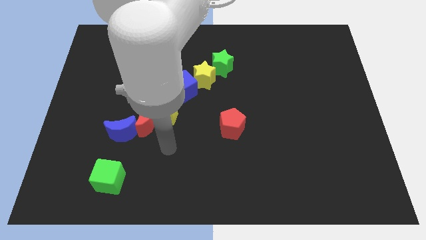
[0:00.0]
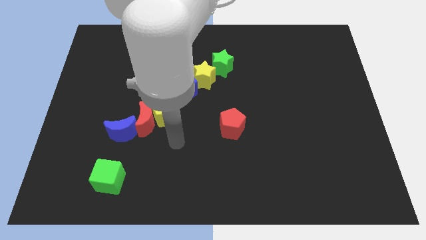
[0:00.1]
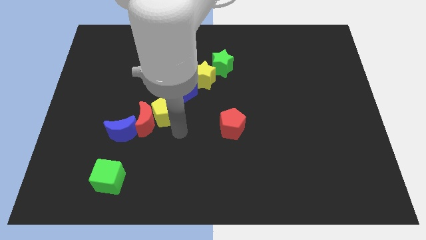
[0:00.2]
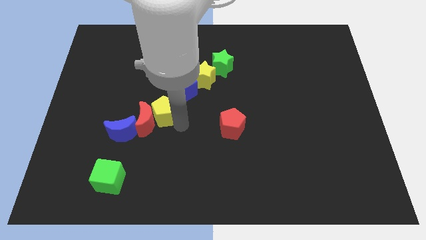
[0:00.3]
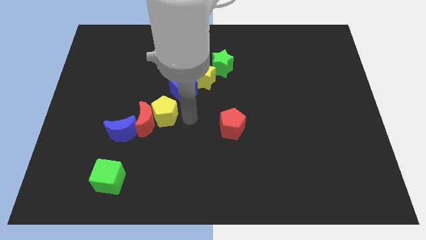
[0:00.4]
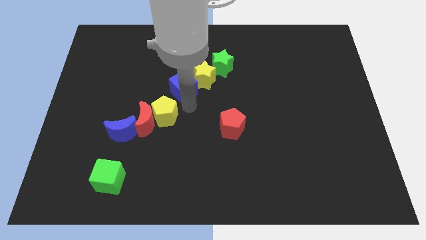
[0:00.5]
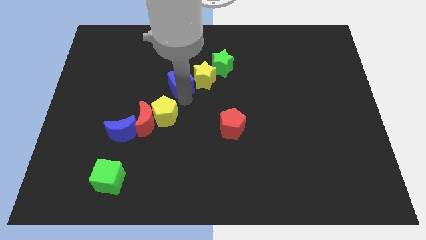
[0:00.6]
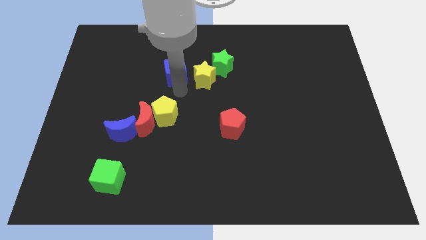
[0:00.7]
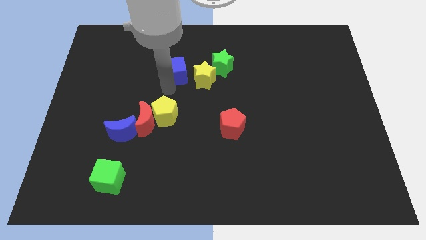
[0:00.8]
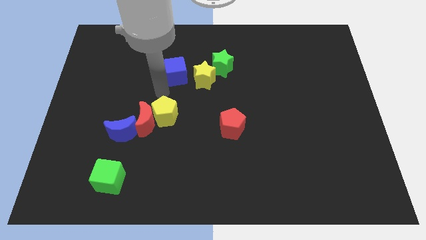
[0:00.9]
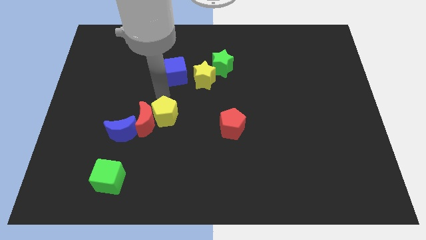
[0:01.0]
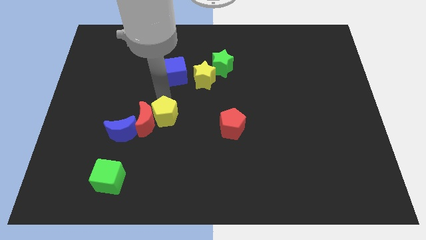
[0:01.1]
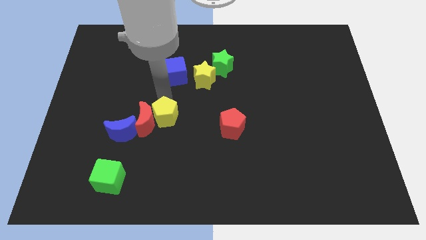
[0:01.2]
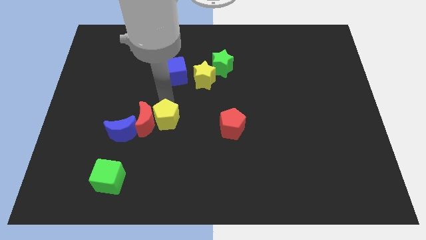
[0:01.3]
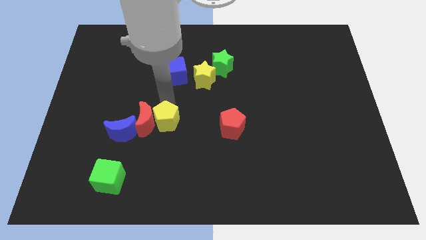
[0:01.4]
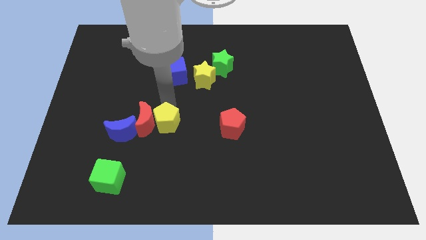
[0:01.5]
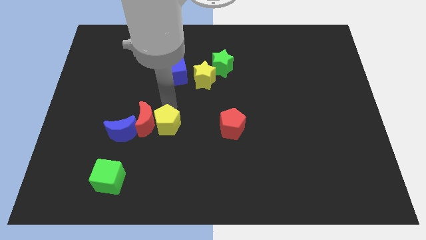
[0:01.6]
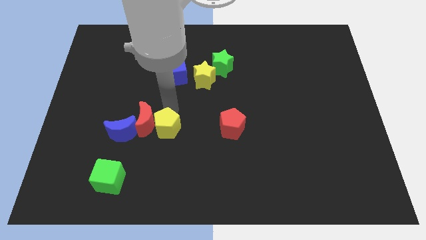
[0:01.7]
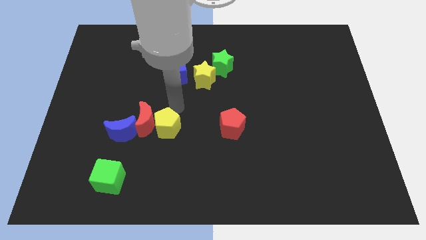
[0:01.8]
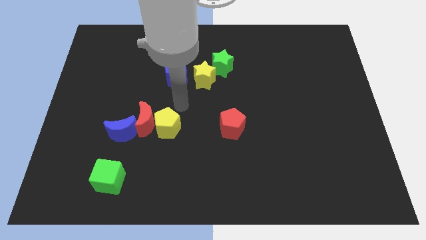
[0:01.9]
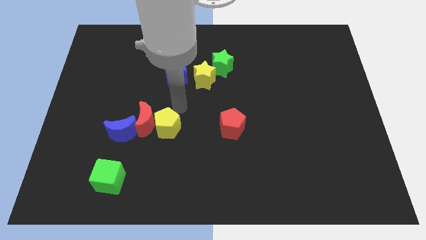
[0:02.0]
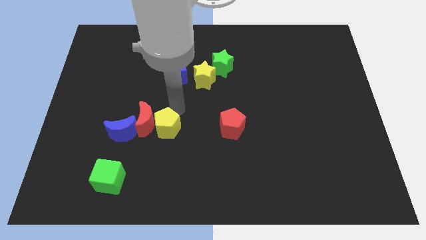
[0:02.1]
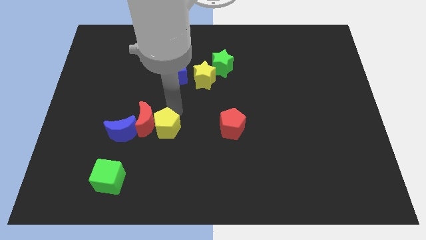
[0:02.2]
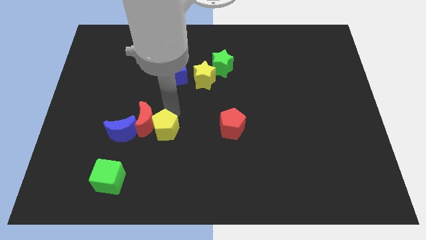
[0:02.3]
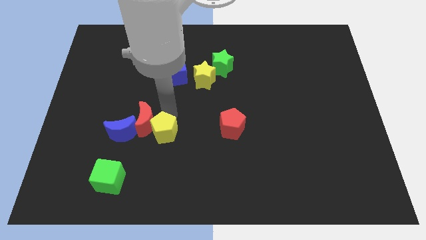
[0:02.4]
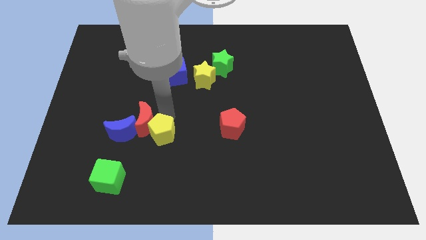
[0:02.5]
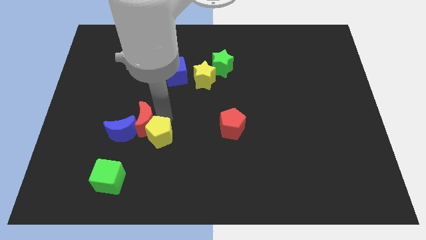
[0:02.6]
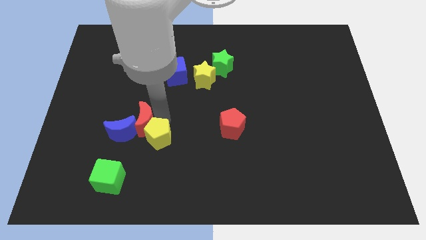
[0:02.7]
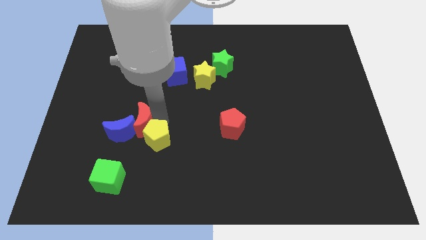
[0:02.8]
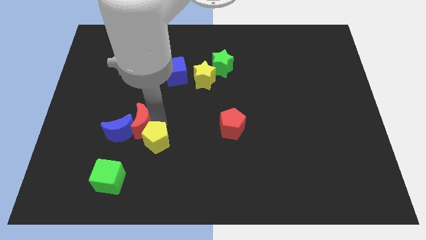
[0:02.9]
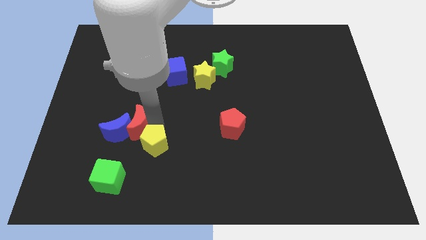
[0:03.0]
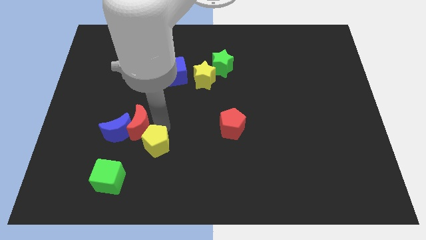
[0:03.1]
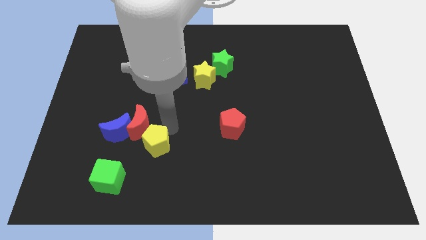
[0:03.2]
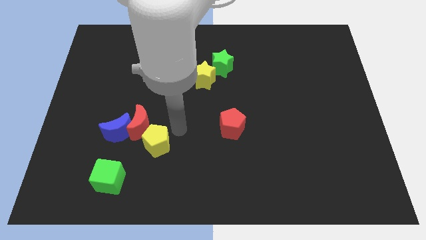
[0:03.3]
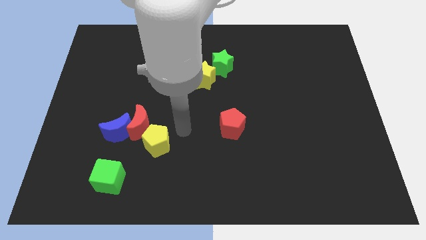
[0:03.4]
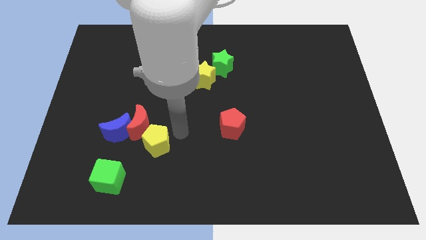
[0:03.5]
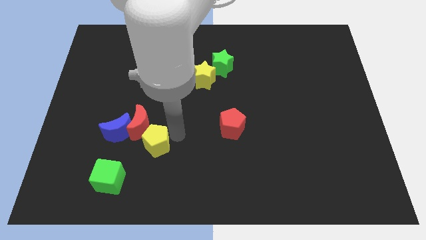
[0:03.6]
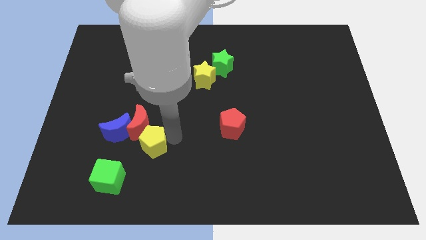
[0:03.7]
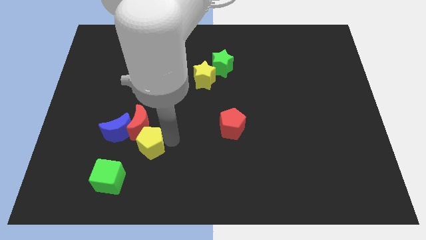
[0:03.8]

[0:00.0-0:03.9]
move the yellow pentagon a little bit downwards and to the left

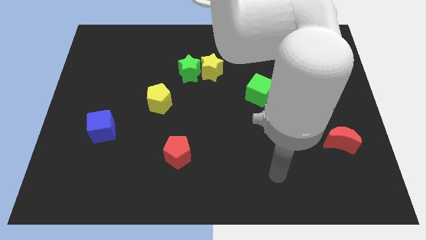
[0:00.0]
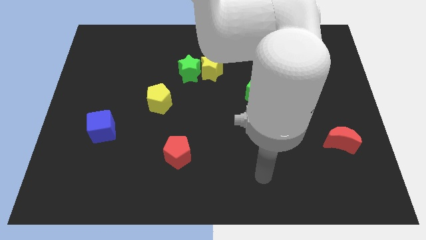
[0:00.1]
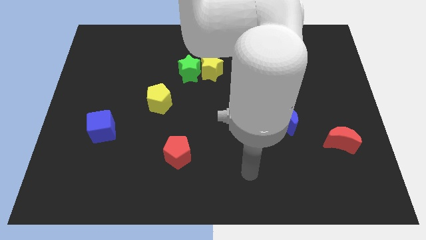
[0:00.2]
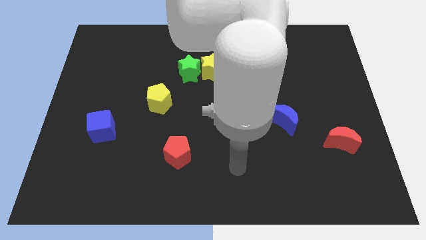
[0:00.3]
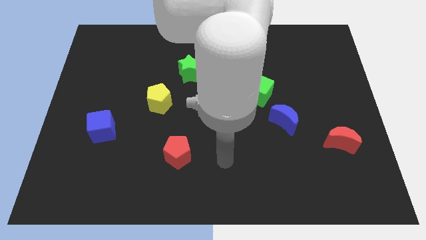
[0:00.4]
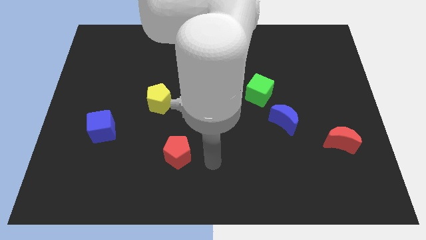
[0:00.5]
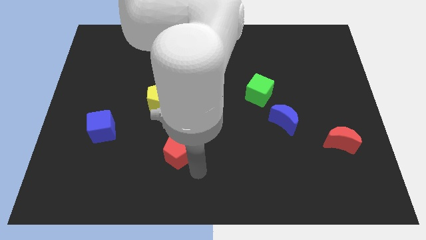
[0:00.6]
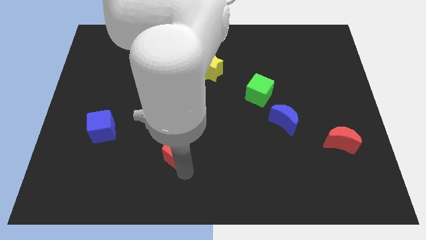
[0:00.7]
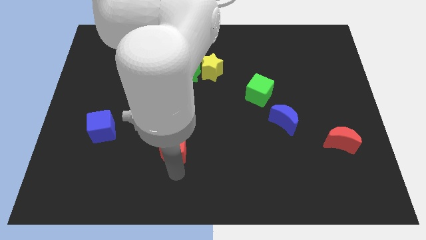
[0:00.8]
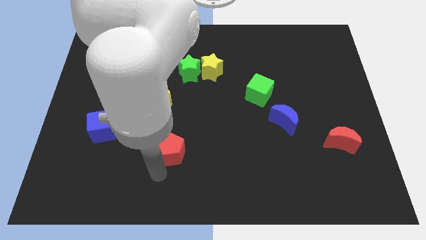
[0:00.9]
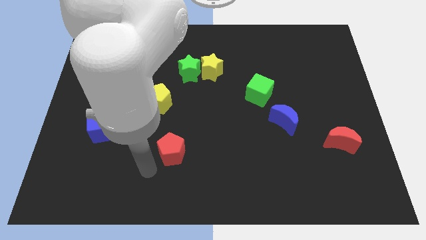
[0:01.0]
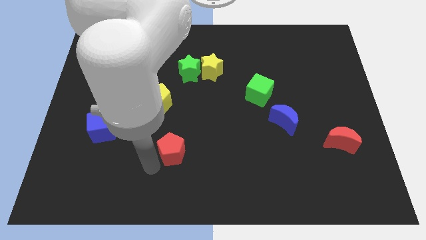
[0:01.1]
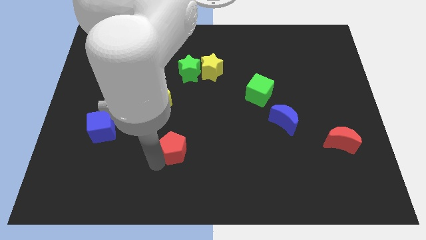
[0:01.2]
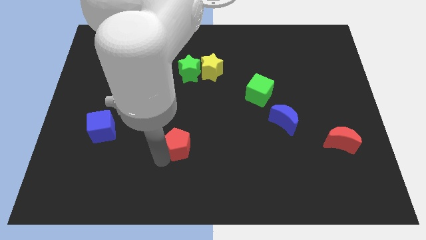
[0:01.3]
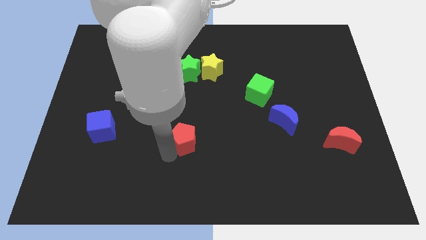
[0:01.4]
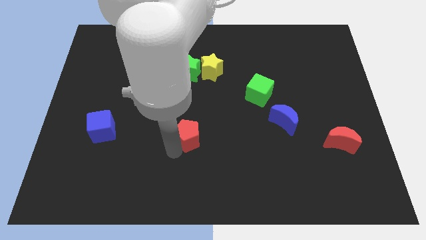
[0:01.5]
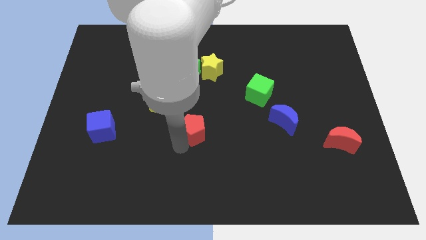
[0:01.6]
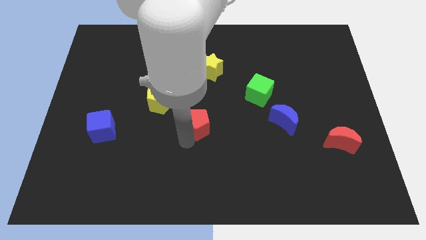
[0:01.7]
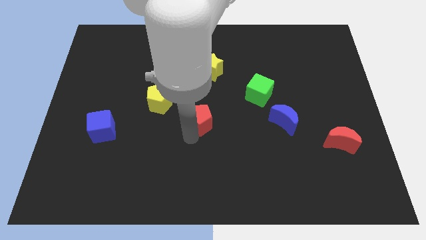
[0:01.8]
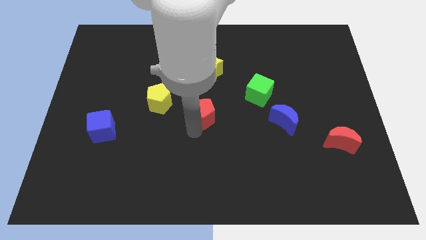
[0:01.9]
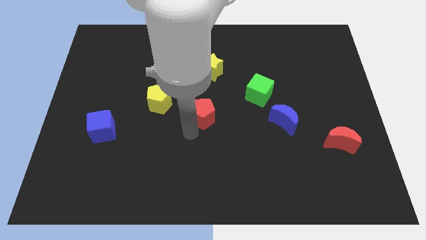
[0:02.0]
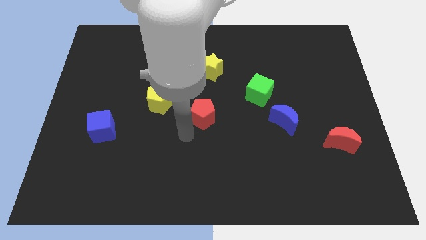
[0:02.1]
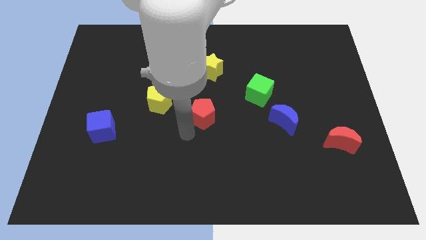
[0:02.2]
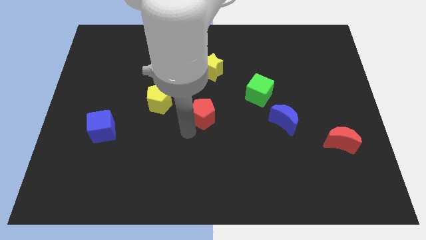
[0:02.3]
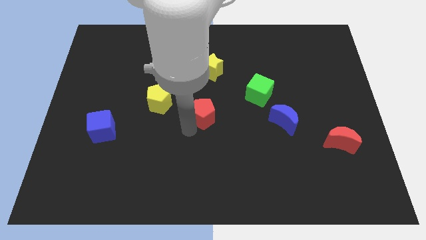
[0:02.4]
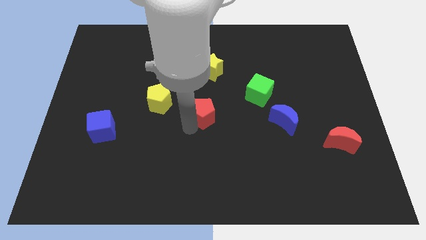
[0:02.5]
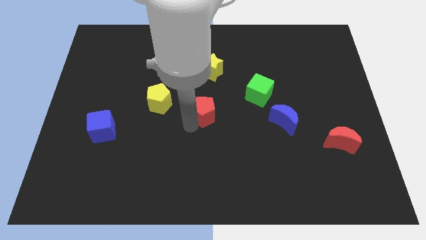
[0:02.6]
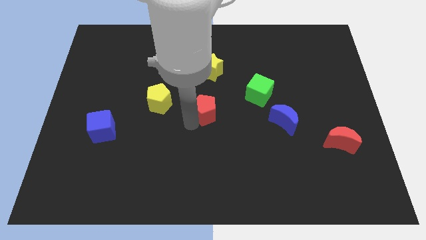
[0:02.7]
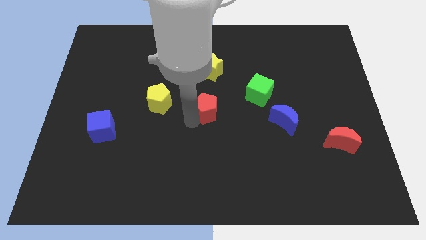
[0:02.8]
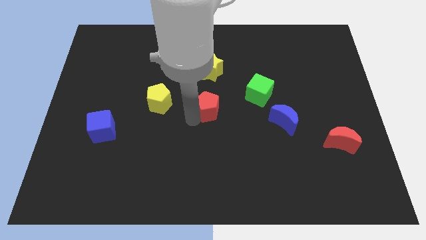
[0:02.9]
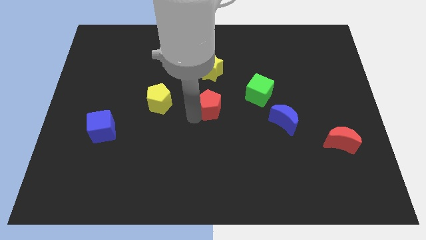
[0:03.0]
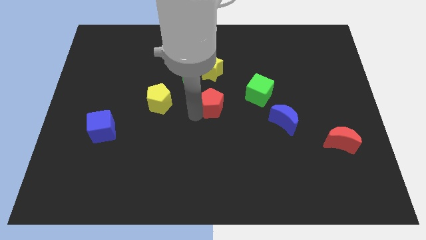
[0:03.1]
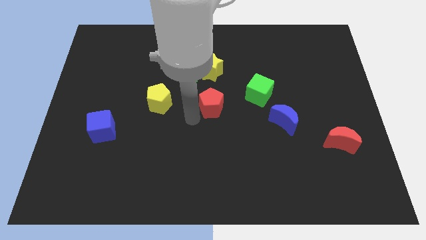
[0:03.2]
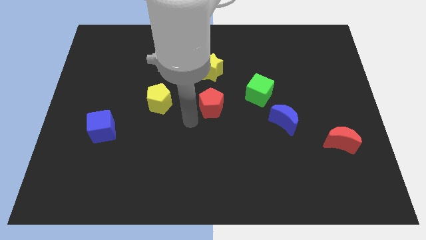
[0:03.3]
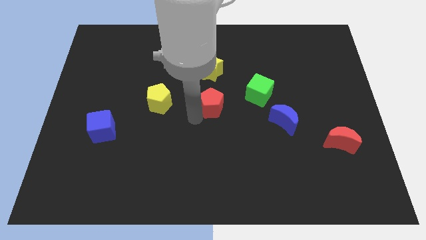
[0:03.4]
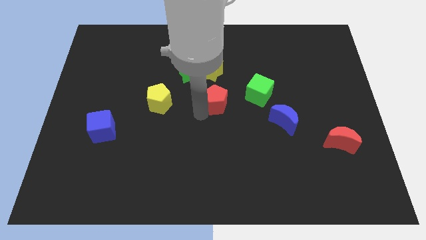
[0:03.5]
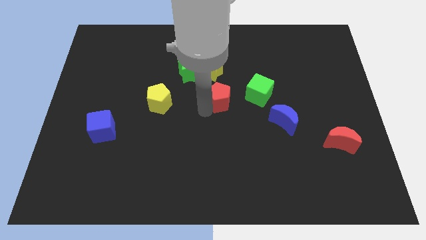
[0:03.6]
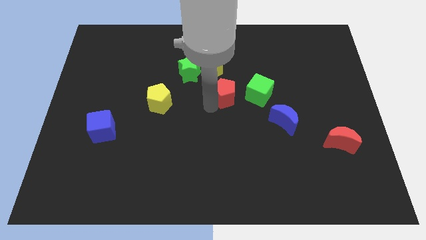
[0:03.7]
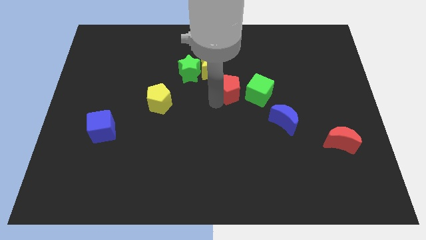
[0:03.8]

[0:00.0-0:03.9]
push the red pentagon diagonally up and right

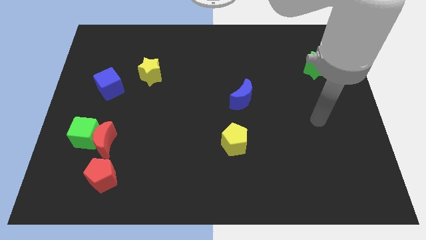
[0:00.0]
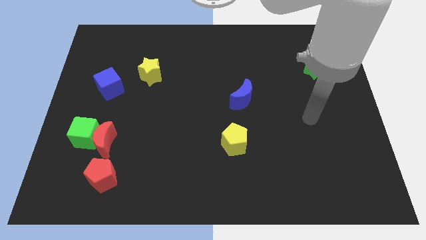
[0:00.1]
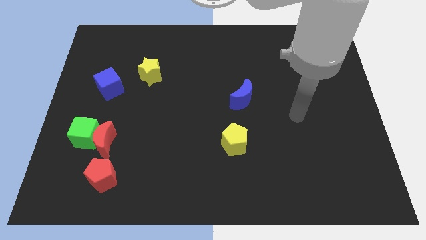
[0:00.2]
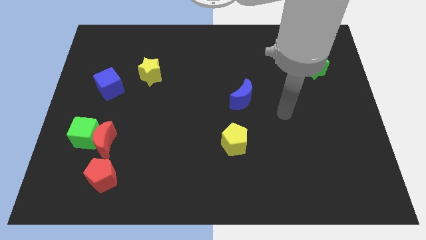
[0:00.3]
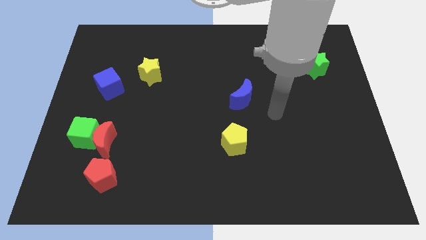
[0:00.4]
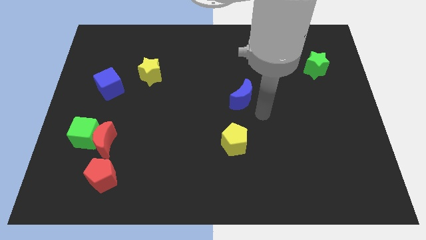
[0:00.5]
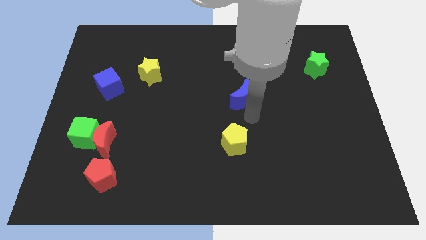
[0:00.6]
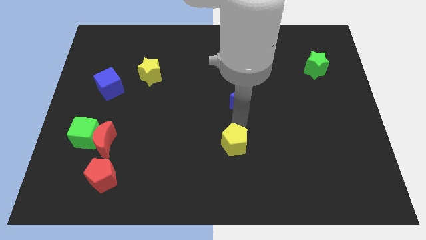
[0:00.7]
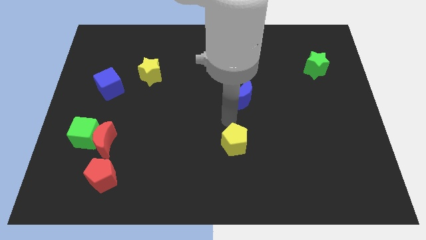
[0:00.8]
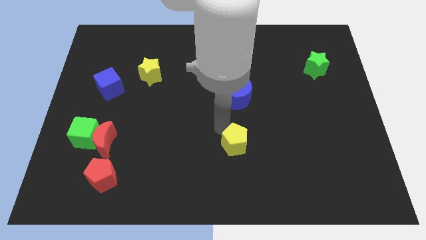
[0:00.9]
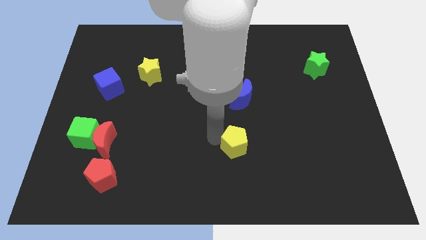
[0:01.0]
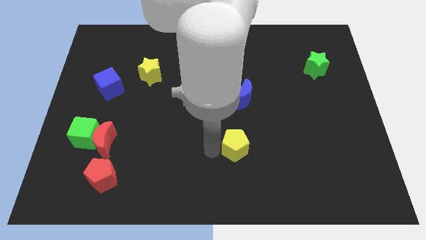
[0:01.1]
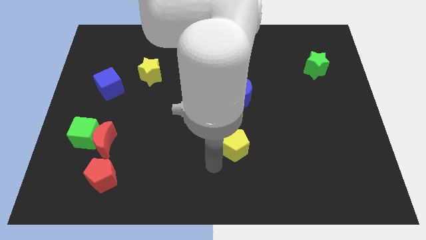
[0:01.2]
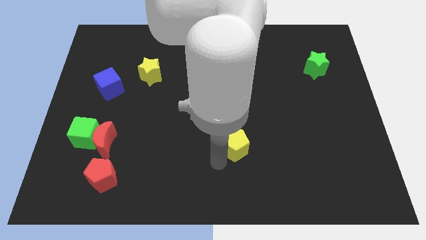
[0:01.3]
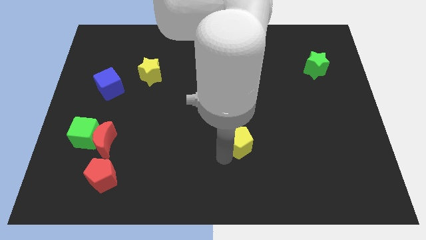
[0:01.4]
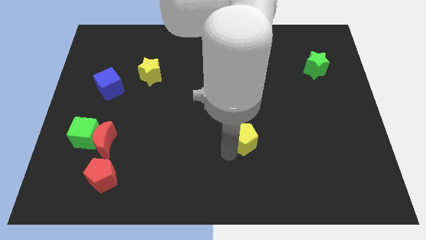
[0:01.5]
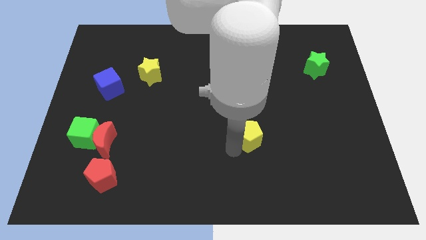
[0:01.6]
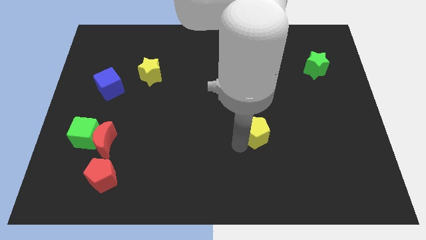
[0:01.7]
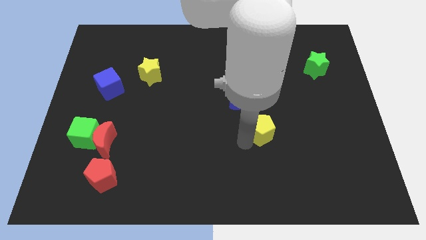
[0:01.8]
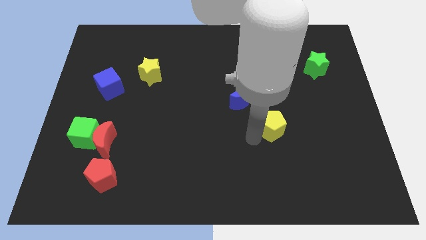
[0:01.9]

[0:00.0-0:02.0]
slightly push the yellow pentagon up and then to the right
